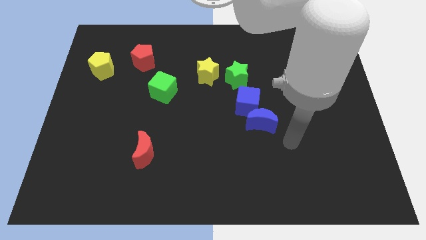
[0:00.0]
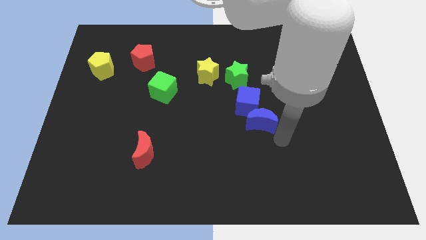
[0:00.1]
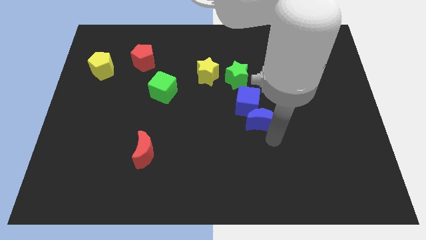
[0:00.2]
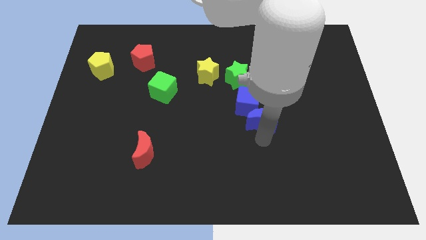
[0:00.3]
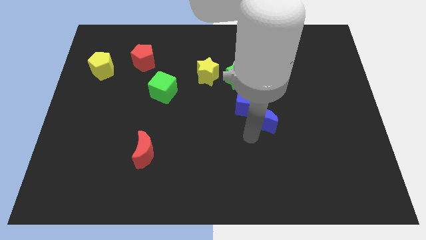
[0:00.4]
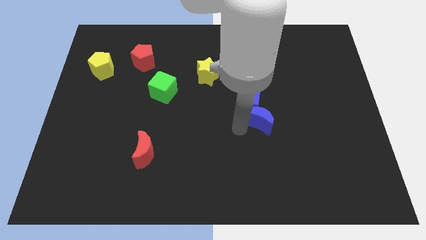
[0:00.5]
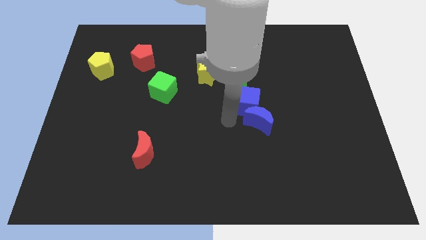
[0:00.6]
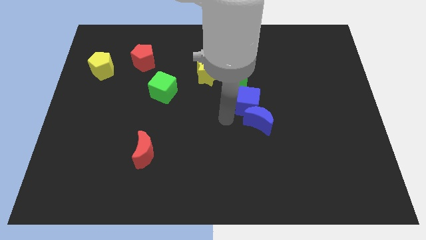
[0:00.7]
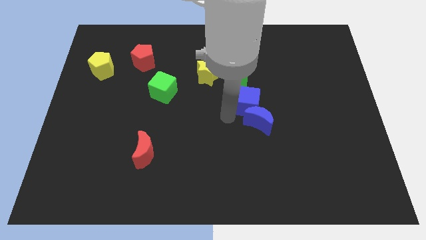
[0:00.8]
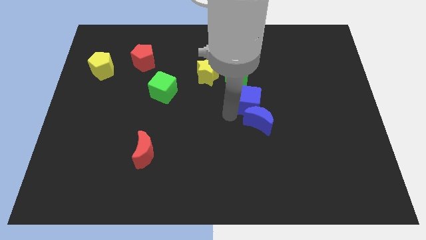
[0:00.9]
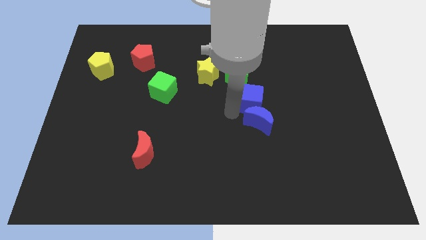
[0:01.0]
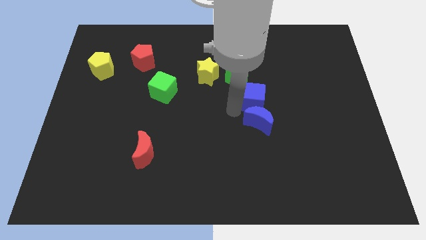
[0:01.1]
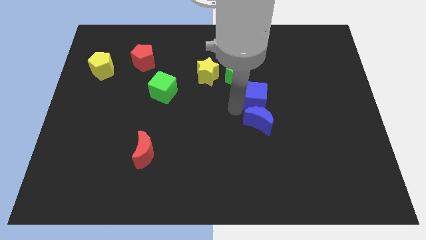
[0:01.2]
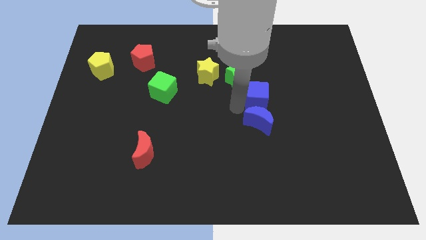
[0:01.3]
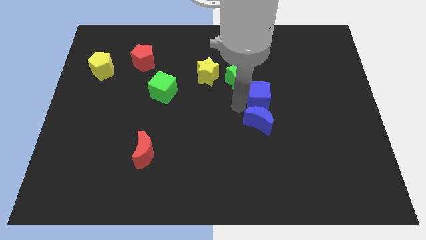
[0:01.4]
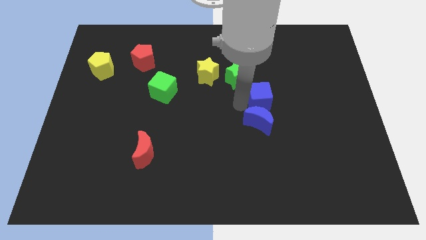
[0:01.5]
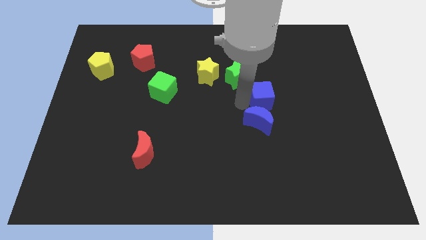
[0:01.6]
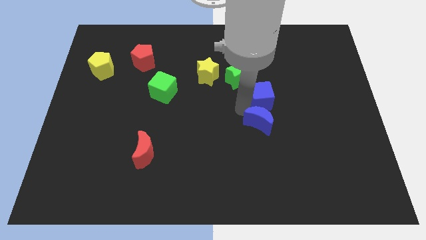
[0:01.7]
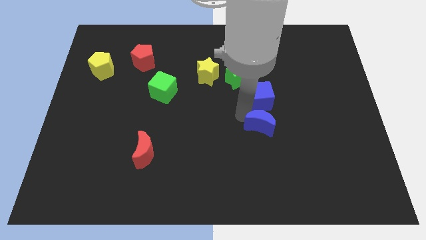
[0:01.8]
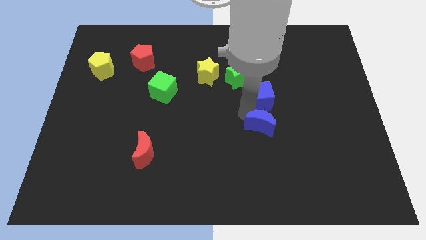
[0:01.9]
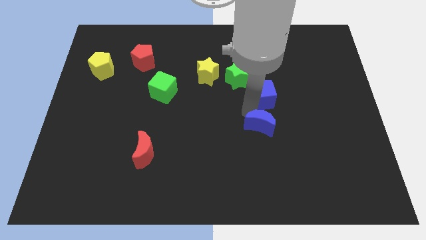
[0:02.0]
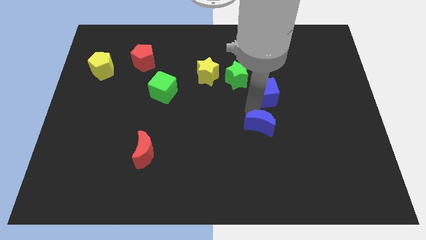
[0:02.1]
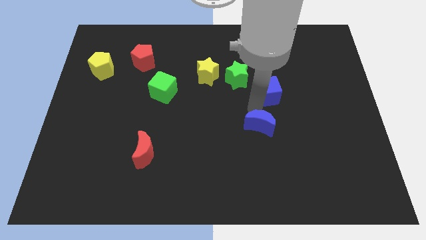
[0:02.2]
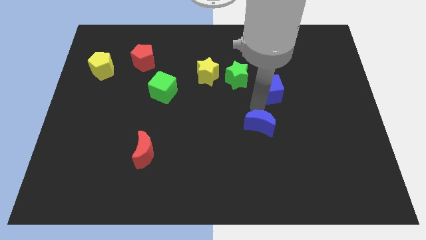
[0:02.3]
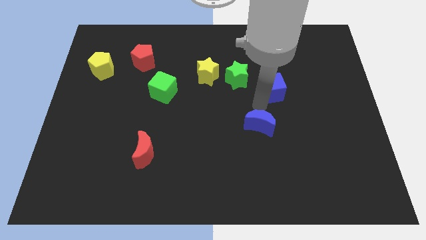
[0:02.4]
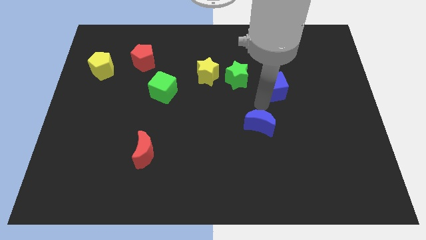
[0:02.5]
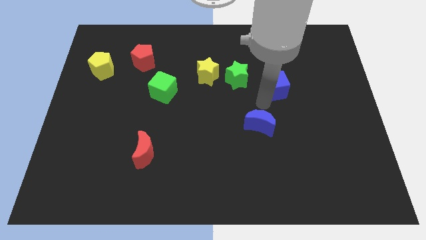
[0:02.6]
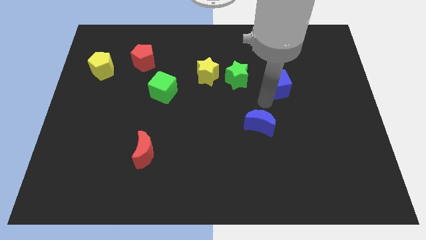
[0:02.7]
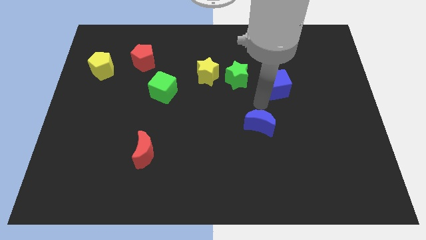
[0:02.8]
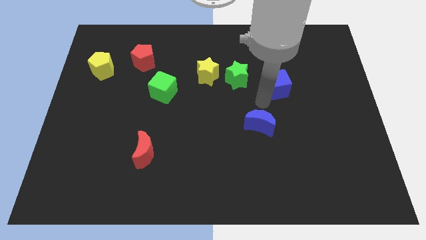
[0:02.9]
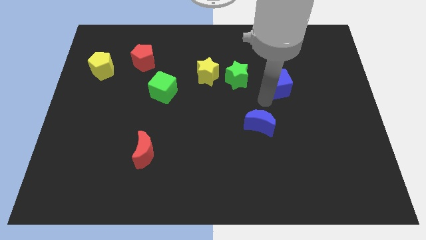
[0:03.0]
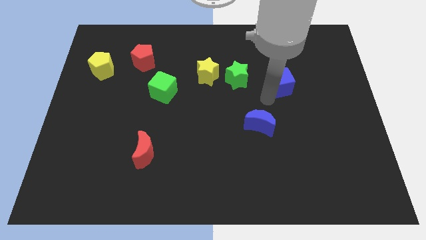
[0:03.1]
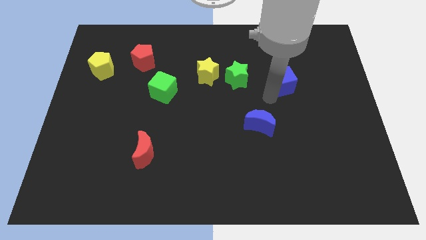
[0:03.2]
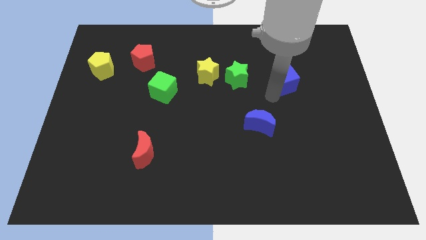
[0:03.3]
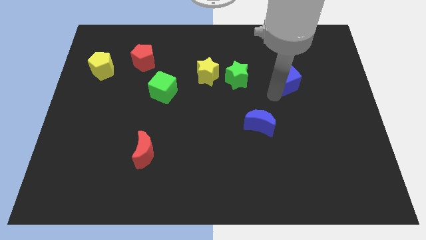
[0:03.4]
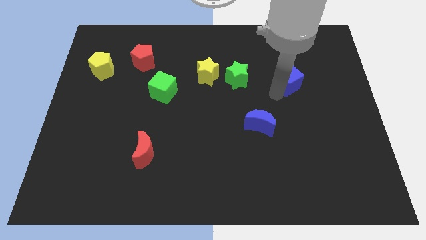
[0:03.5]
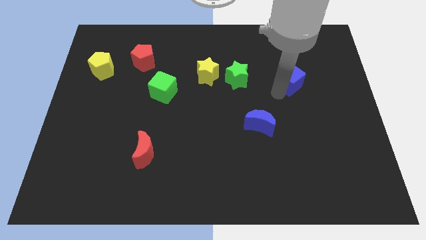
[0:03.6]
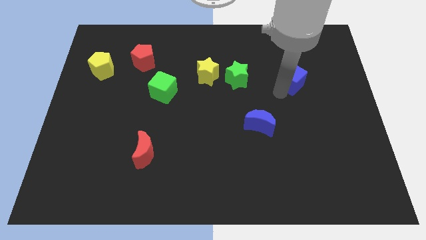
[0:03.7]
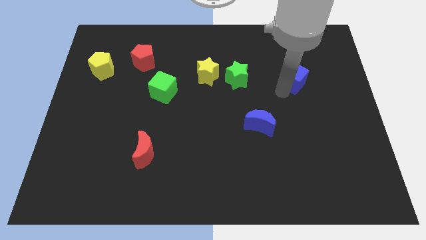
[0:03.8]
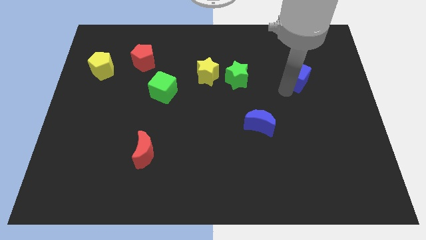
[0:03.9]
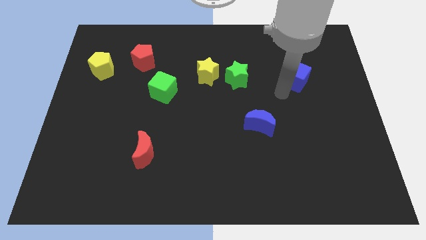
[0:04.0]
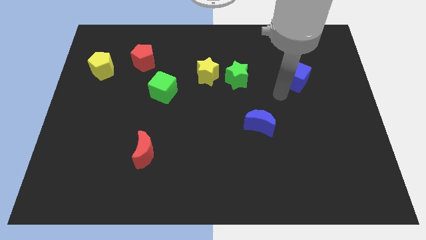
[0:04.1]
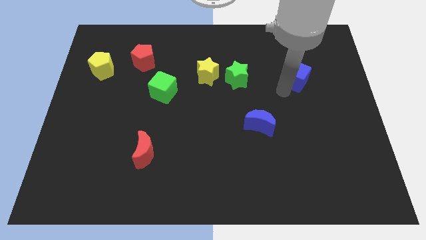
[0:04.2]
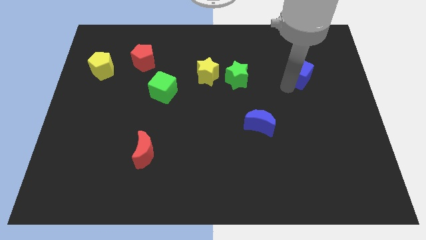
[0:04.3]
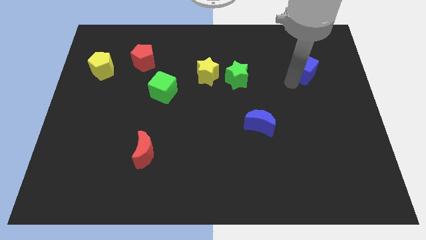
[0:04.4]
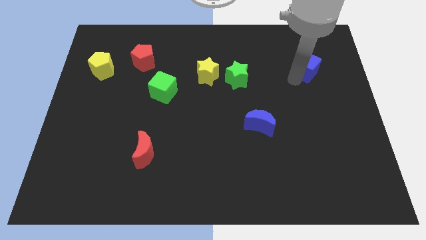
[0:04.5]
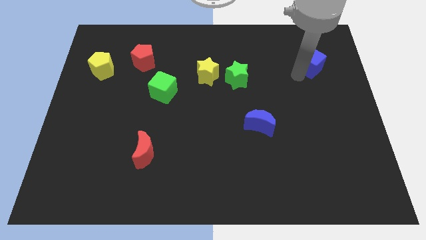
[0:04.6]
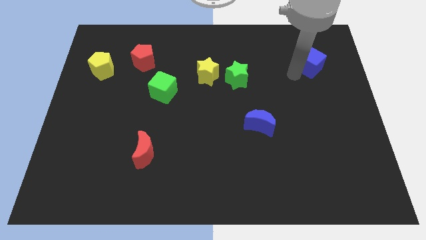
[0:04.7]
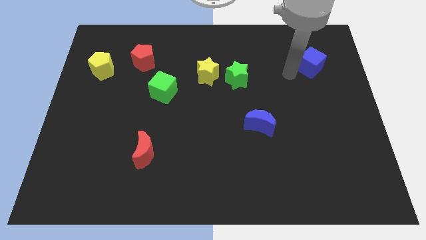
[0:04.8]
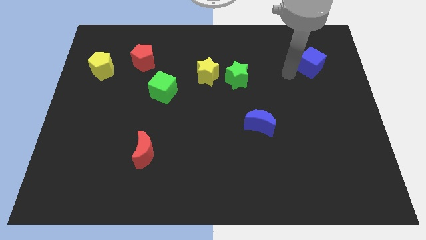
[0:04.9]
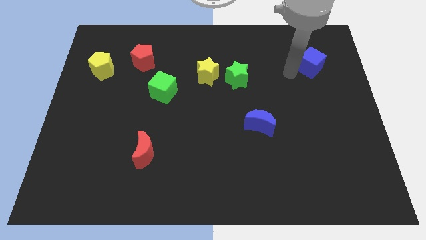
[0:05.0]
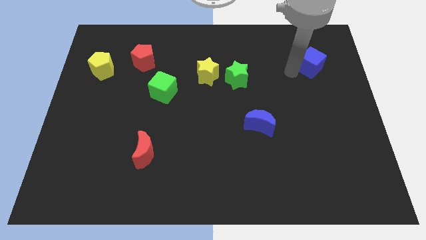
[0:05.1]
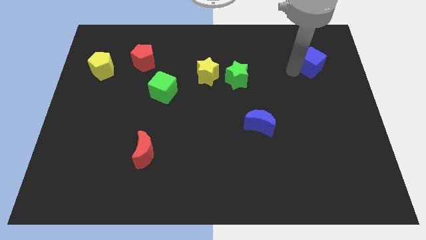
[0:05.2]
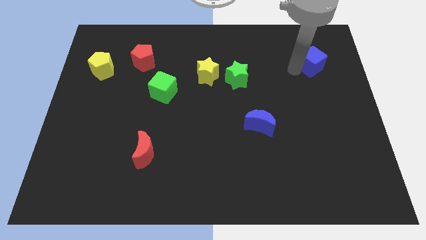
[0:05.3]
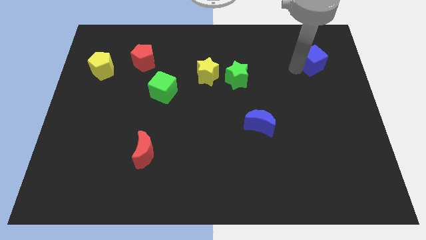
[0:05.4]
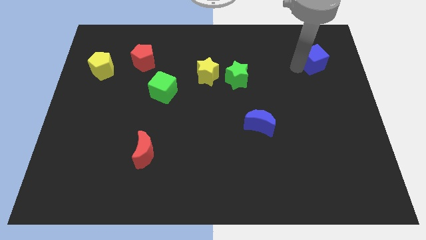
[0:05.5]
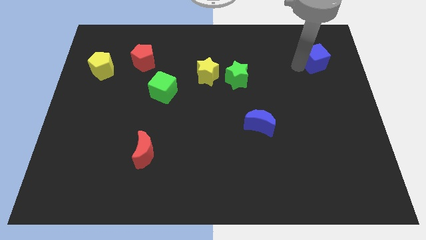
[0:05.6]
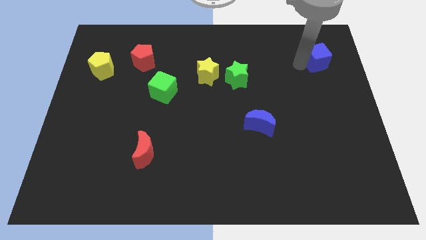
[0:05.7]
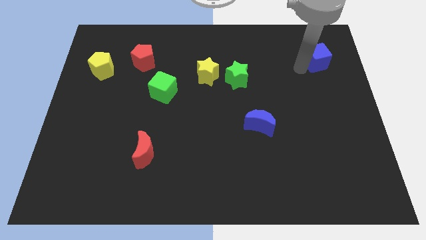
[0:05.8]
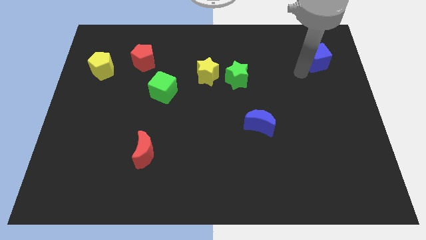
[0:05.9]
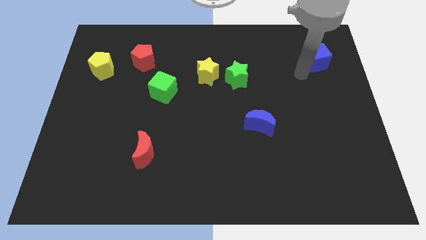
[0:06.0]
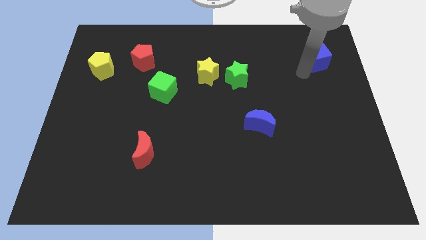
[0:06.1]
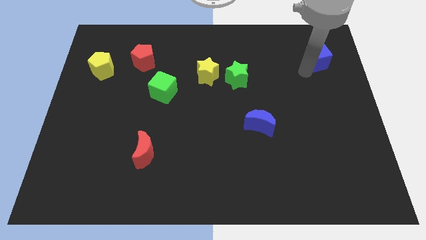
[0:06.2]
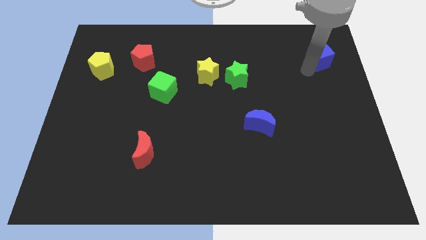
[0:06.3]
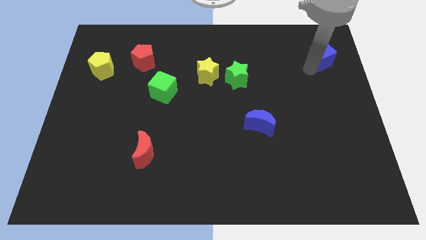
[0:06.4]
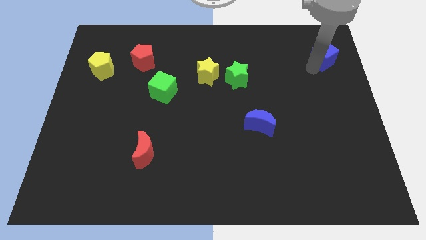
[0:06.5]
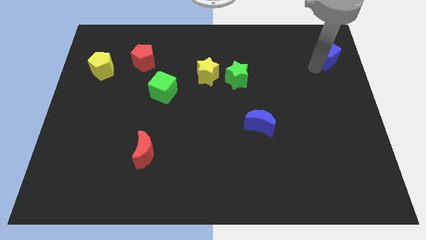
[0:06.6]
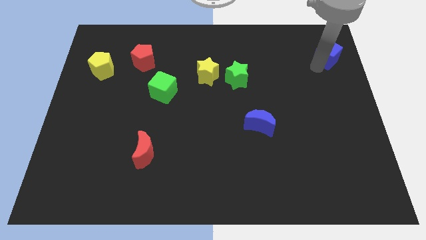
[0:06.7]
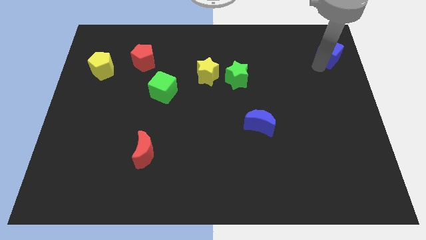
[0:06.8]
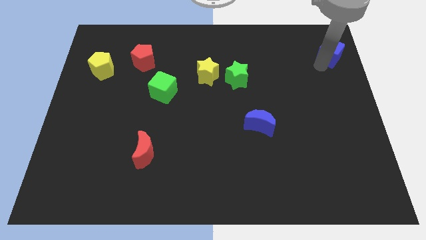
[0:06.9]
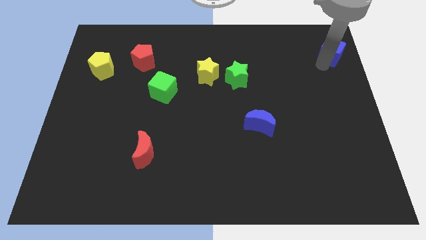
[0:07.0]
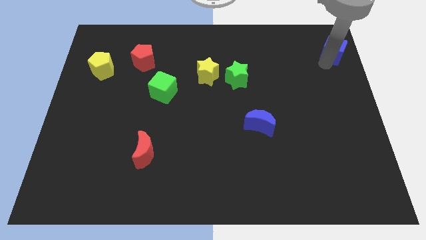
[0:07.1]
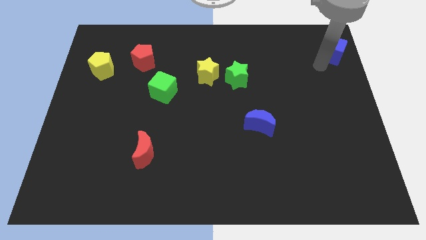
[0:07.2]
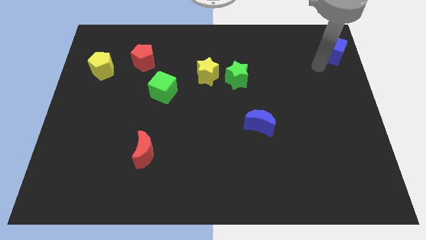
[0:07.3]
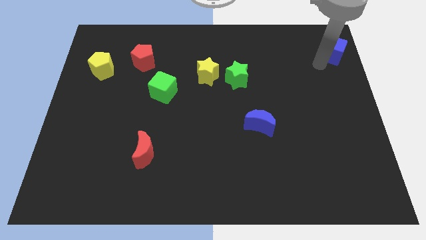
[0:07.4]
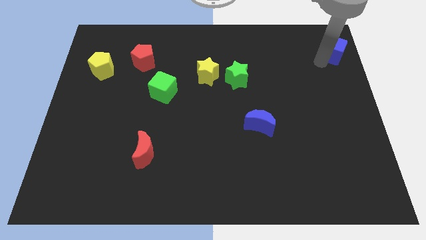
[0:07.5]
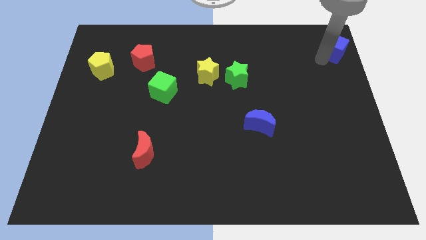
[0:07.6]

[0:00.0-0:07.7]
put the blue cube to the upper right corner

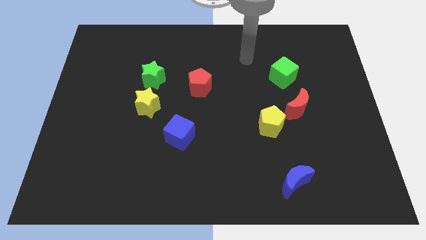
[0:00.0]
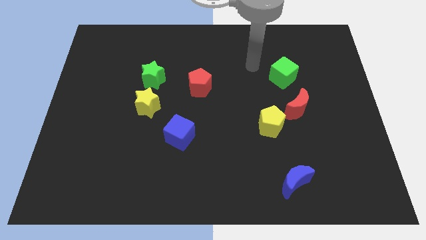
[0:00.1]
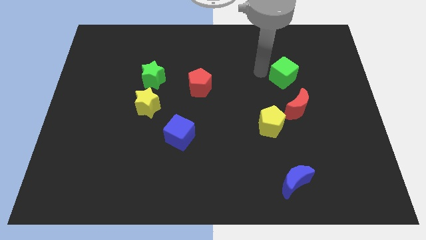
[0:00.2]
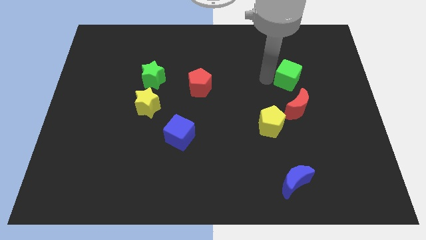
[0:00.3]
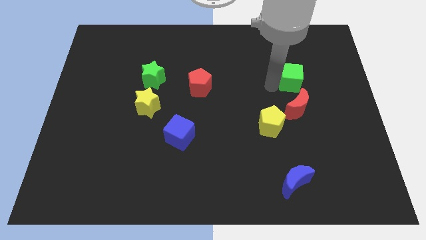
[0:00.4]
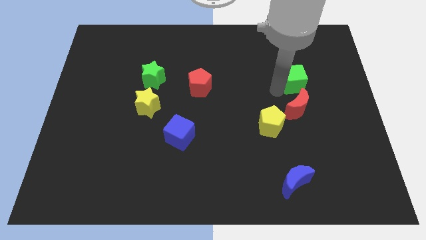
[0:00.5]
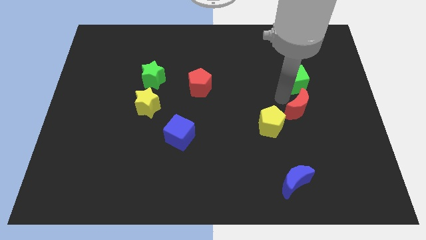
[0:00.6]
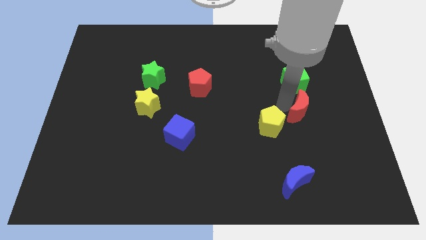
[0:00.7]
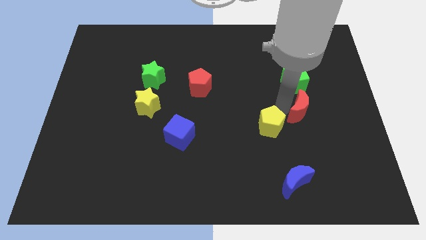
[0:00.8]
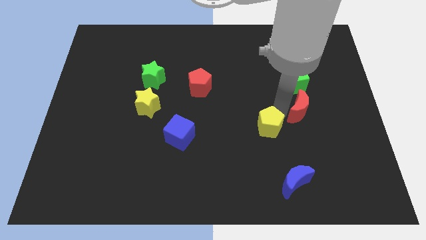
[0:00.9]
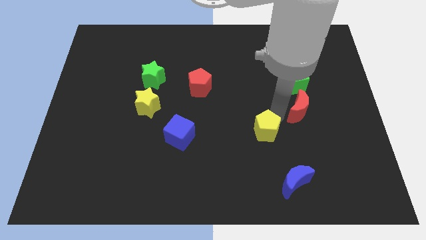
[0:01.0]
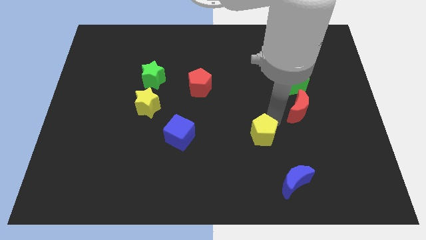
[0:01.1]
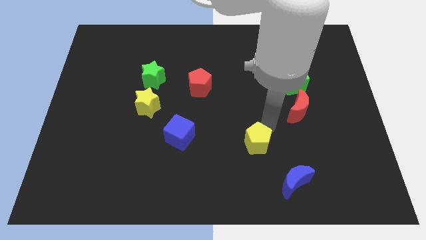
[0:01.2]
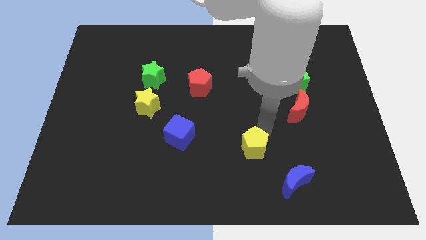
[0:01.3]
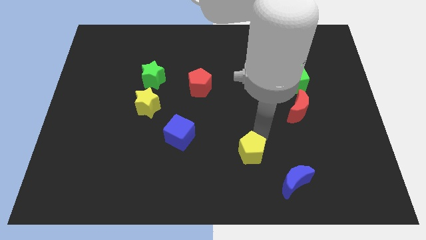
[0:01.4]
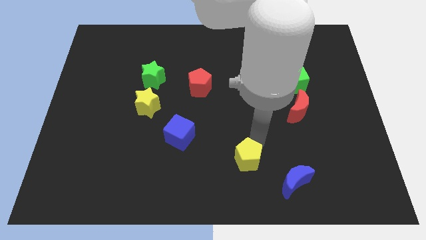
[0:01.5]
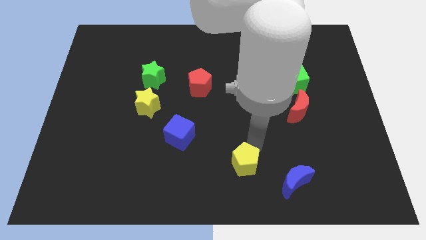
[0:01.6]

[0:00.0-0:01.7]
put the yellow pentagon to the bottom side
